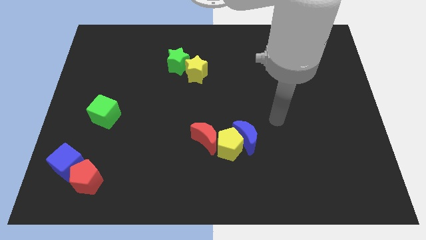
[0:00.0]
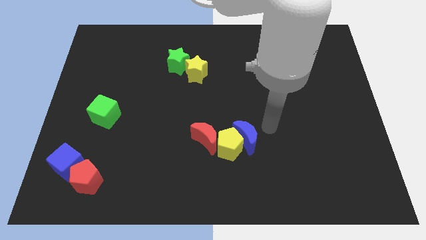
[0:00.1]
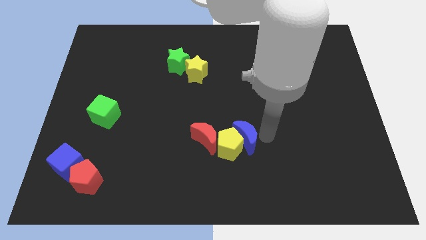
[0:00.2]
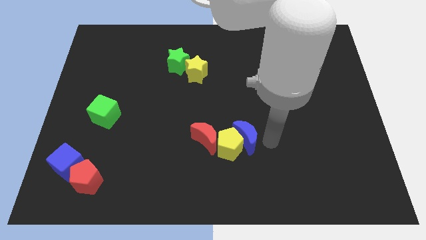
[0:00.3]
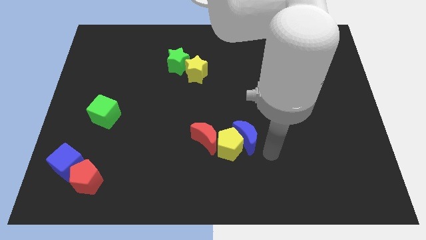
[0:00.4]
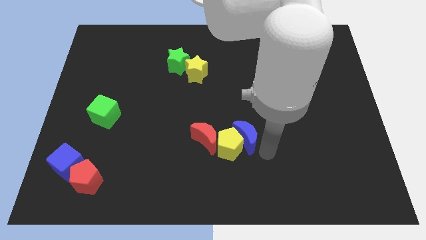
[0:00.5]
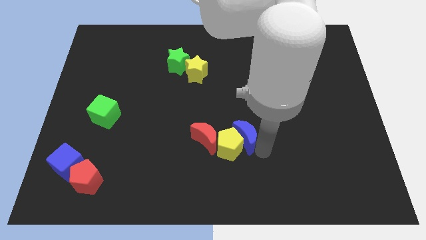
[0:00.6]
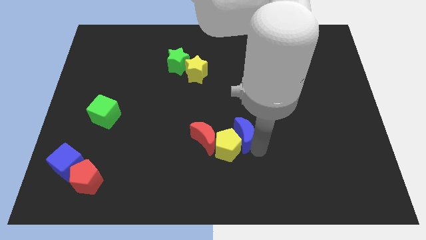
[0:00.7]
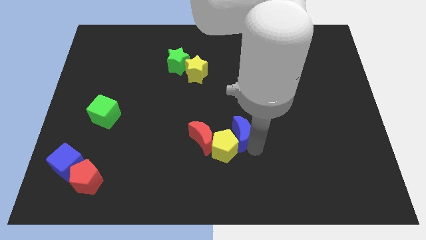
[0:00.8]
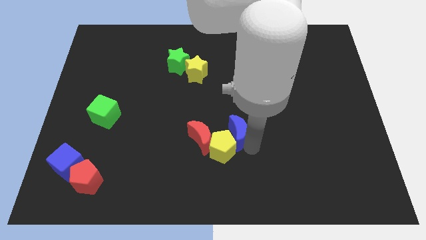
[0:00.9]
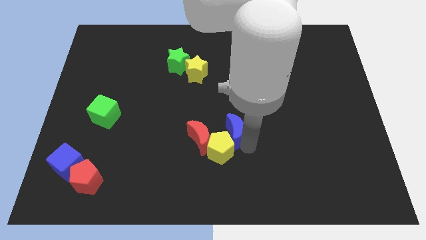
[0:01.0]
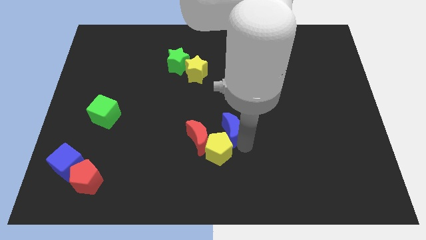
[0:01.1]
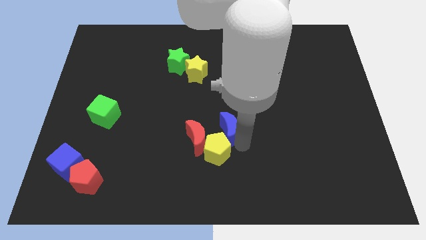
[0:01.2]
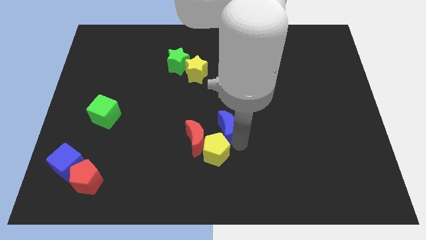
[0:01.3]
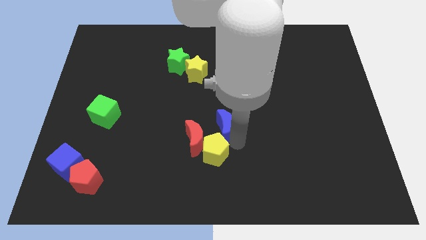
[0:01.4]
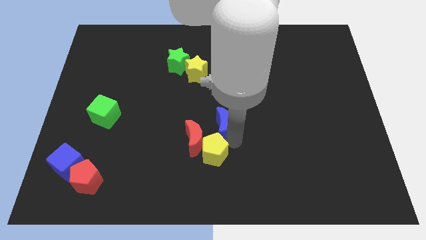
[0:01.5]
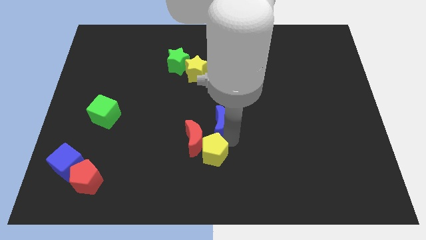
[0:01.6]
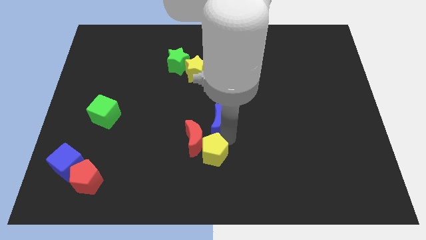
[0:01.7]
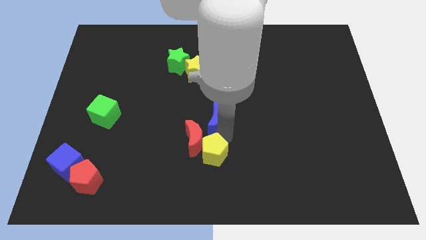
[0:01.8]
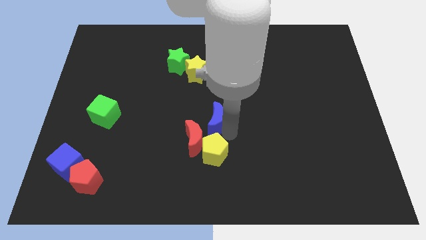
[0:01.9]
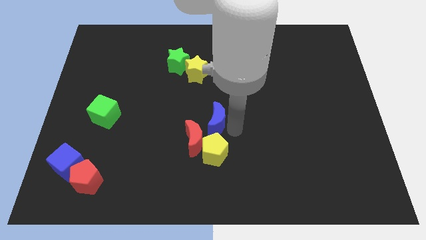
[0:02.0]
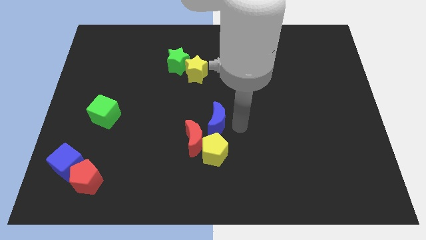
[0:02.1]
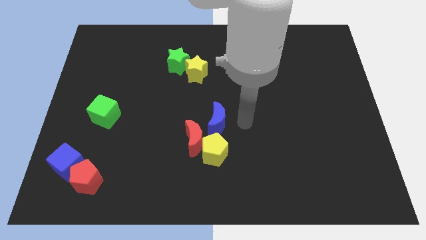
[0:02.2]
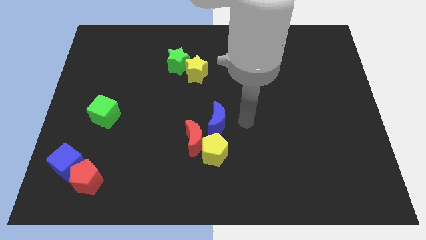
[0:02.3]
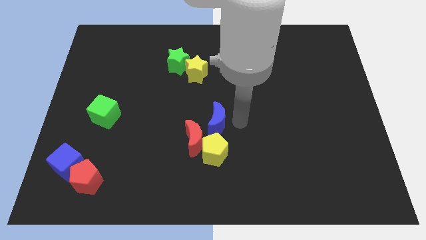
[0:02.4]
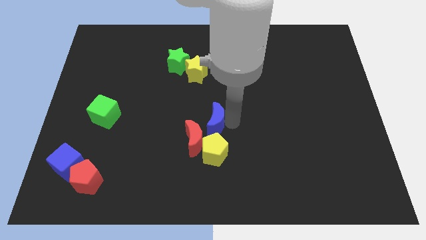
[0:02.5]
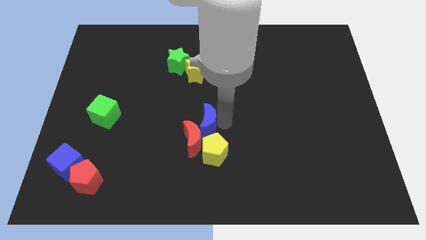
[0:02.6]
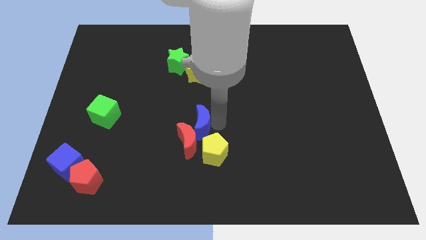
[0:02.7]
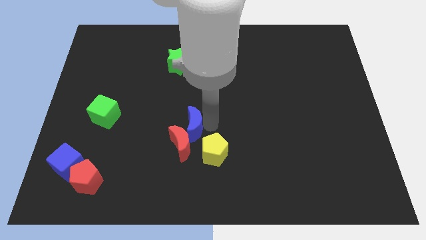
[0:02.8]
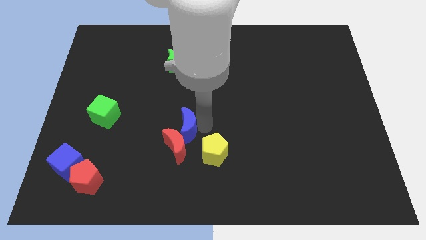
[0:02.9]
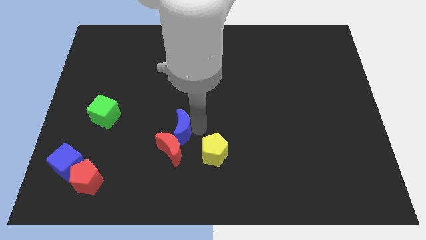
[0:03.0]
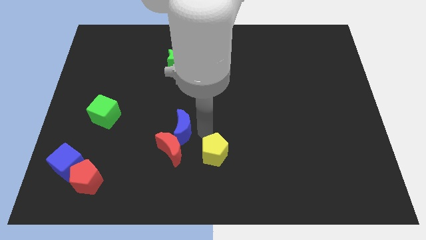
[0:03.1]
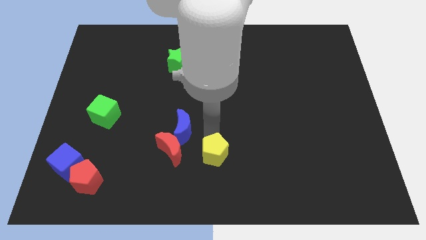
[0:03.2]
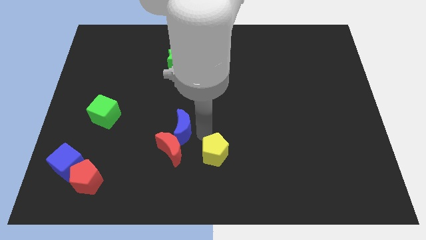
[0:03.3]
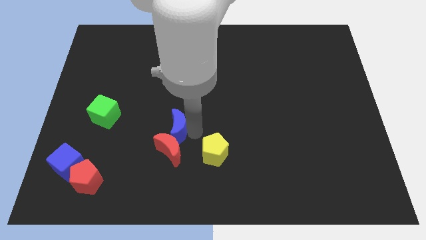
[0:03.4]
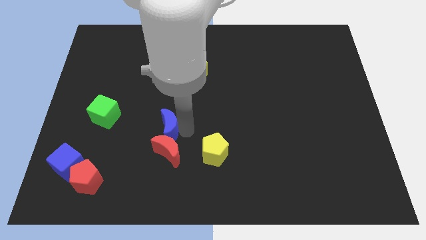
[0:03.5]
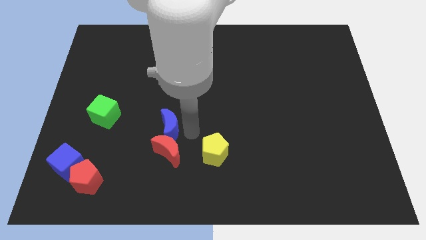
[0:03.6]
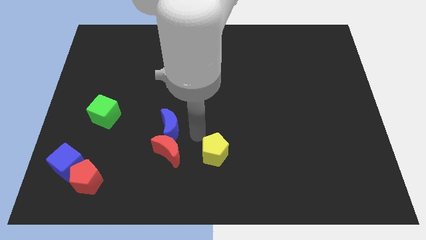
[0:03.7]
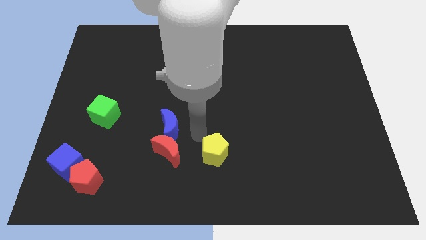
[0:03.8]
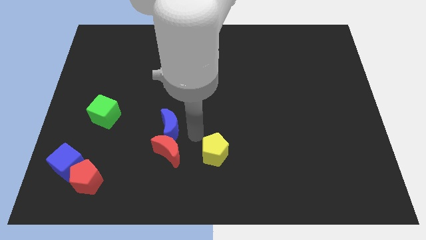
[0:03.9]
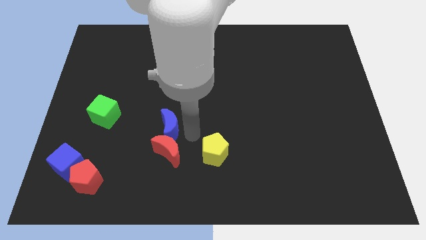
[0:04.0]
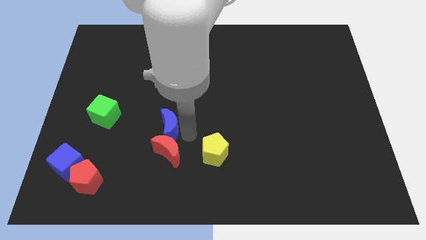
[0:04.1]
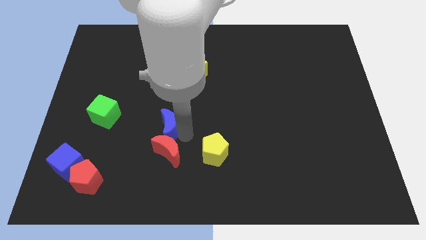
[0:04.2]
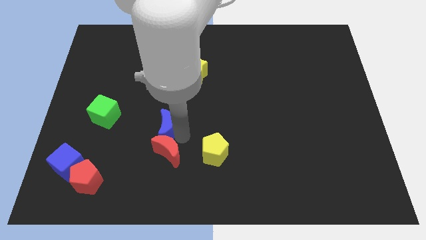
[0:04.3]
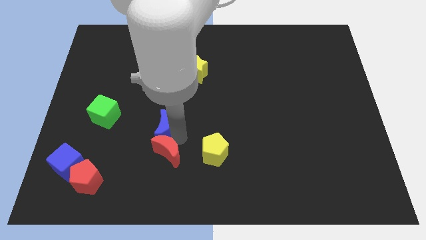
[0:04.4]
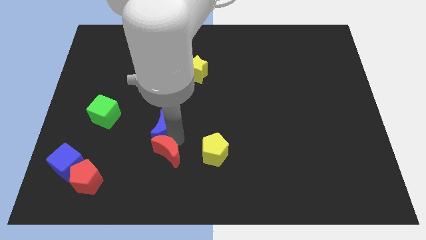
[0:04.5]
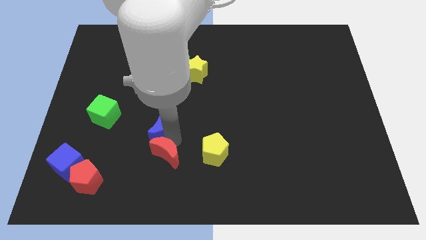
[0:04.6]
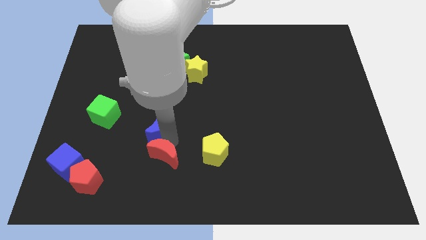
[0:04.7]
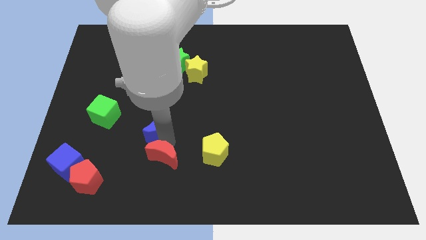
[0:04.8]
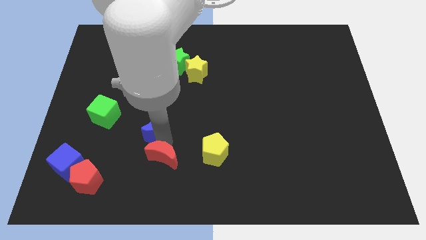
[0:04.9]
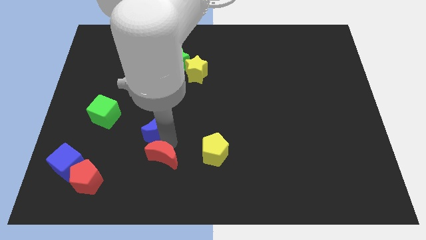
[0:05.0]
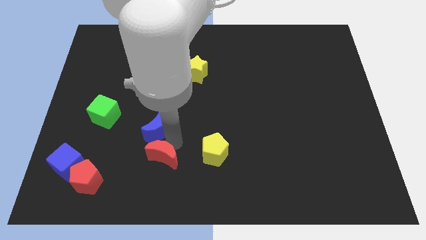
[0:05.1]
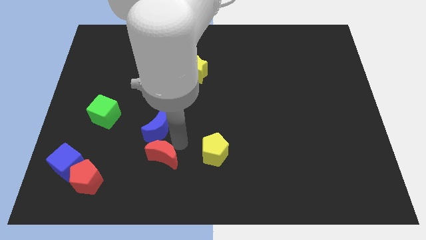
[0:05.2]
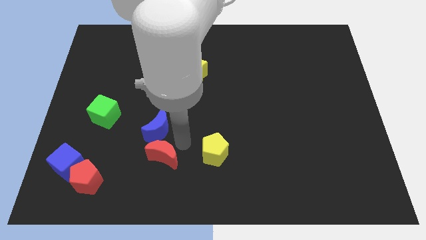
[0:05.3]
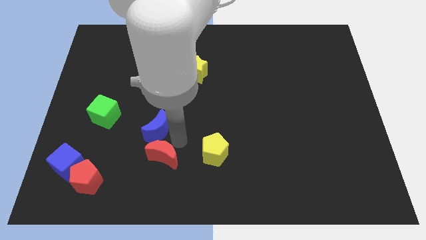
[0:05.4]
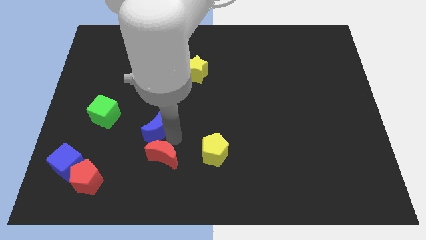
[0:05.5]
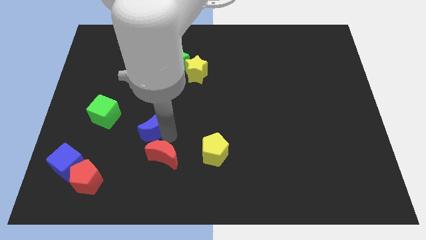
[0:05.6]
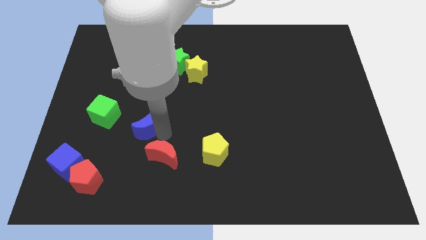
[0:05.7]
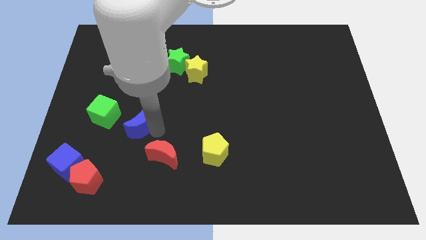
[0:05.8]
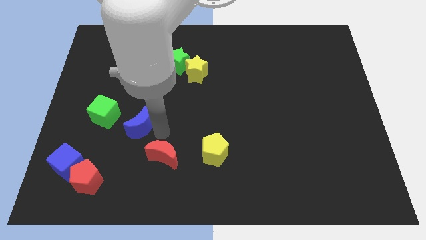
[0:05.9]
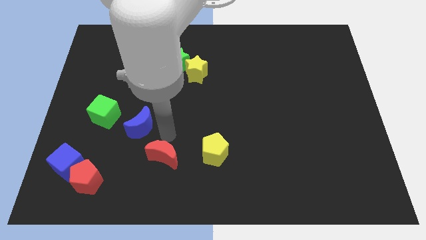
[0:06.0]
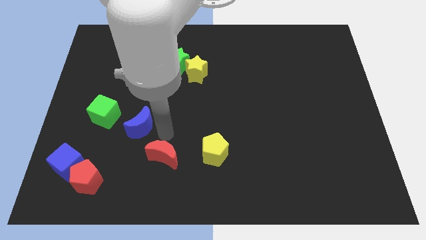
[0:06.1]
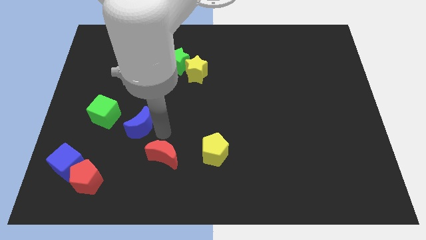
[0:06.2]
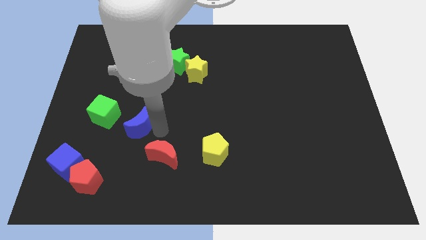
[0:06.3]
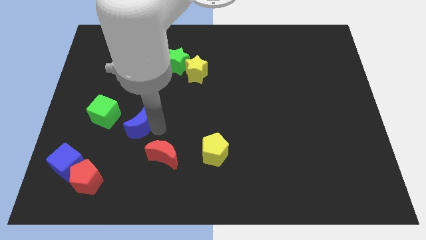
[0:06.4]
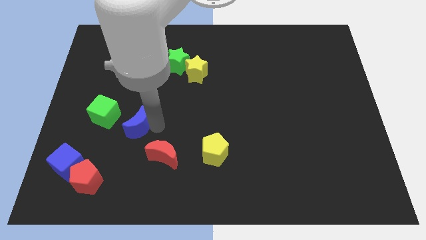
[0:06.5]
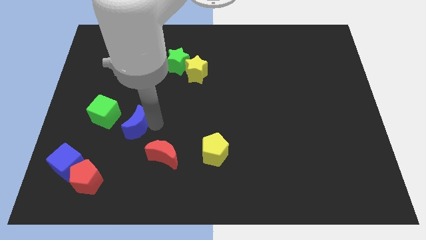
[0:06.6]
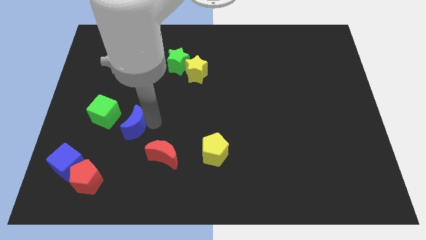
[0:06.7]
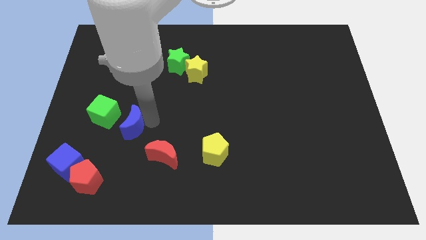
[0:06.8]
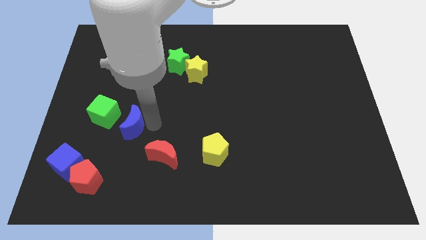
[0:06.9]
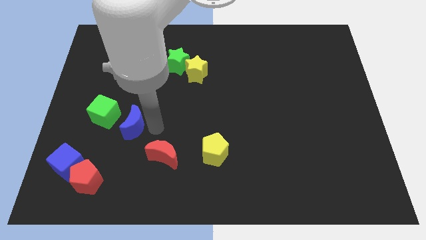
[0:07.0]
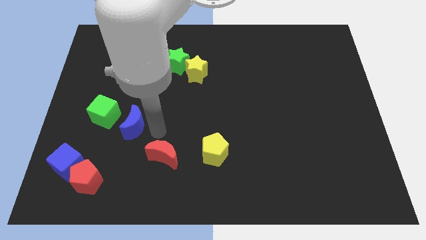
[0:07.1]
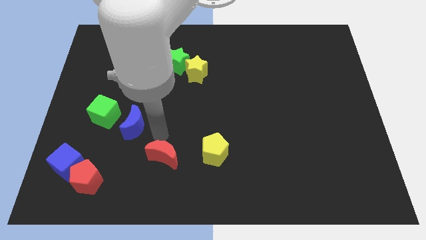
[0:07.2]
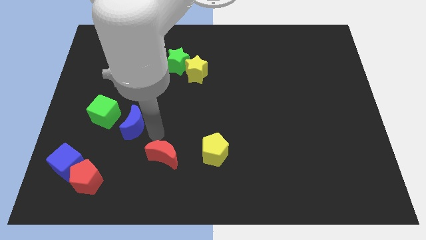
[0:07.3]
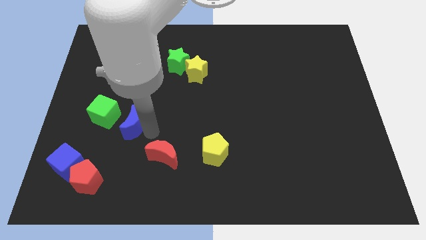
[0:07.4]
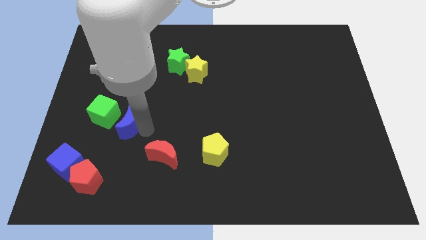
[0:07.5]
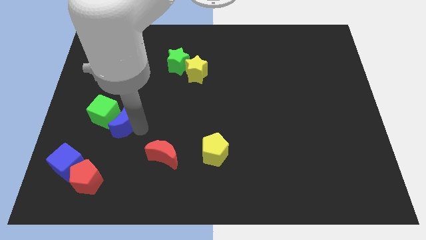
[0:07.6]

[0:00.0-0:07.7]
move the blue moon towards the green cube
